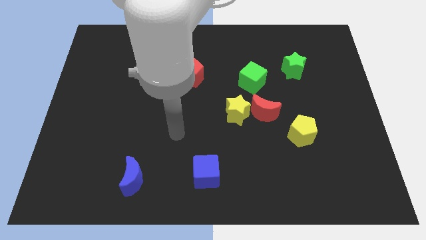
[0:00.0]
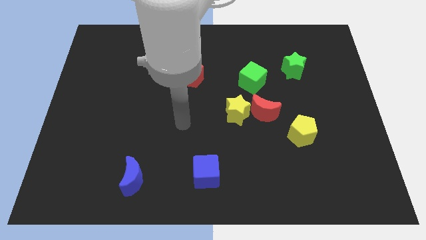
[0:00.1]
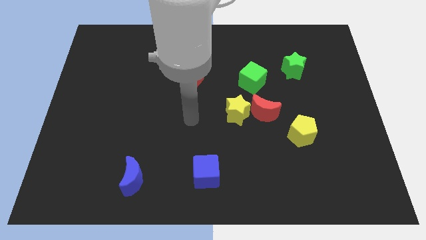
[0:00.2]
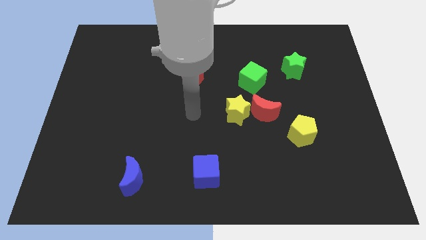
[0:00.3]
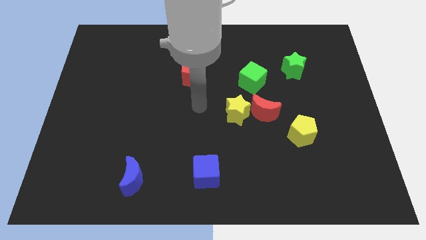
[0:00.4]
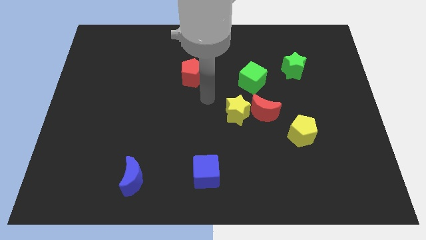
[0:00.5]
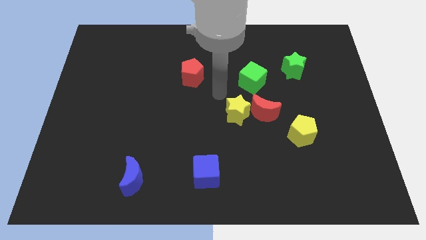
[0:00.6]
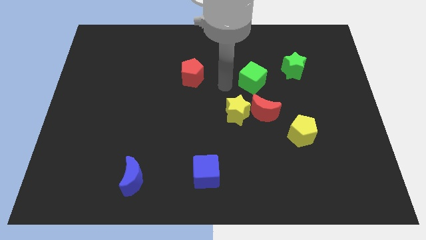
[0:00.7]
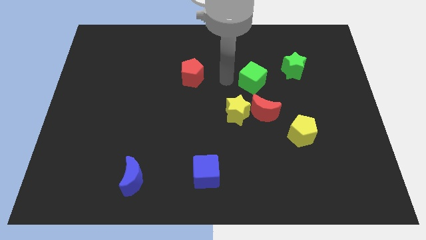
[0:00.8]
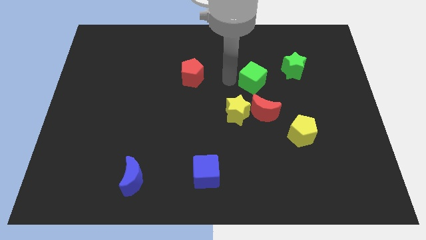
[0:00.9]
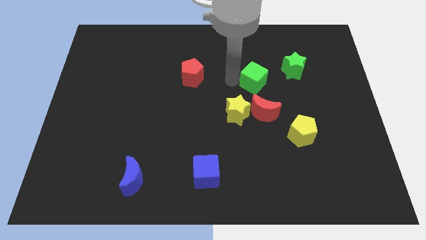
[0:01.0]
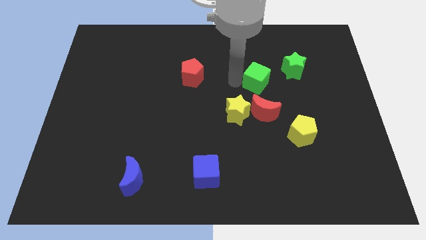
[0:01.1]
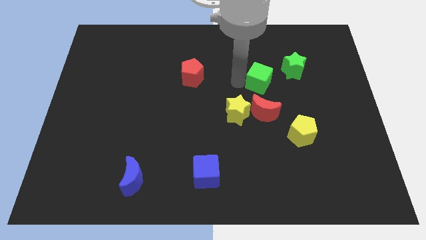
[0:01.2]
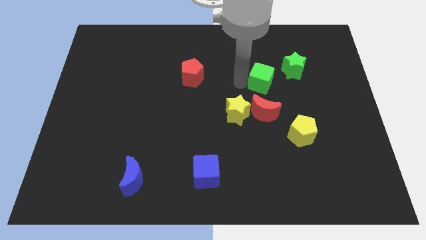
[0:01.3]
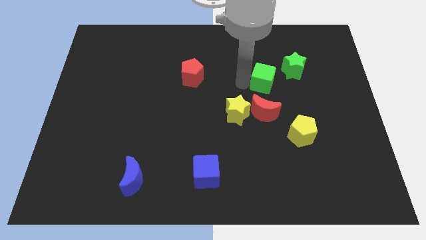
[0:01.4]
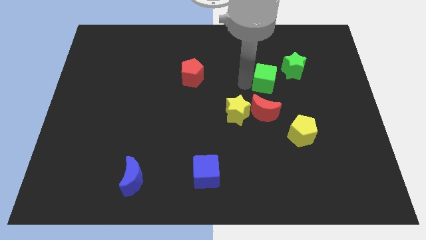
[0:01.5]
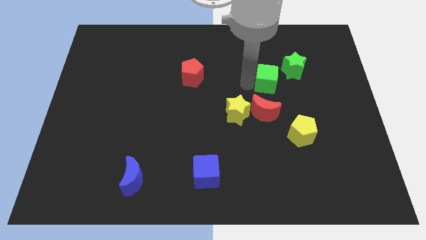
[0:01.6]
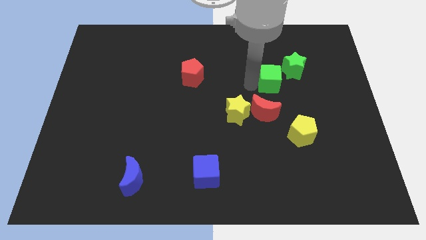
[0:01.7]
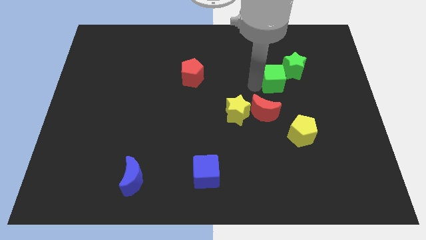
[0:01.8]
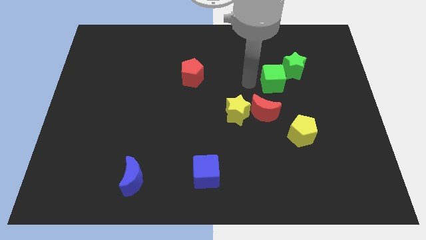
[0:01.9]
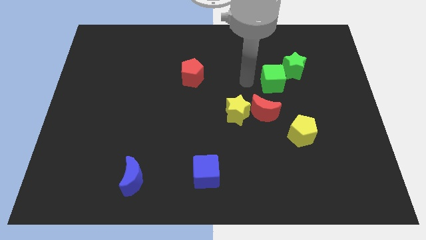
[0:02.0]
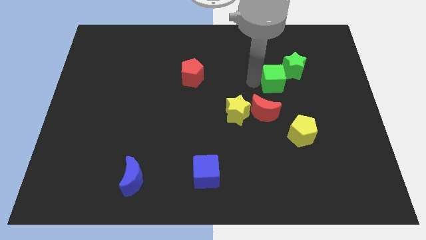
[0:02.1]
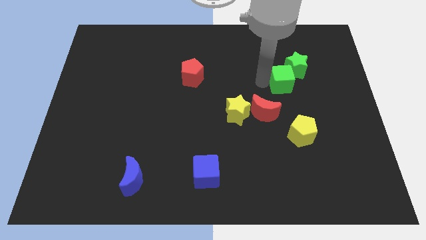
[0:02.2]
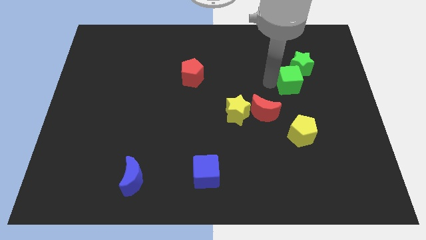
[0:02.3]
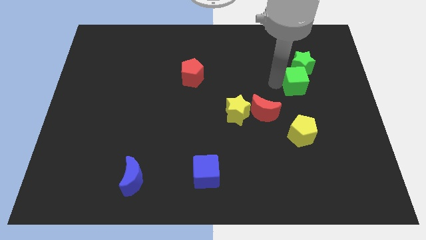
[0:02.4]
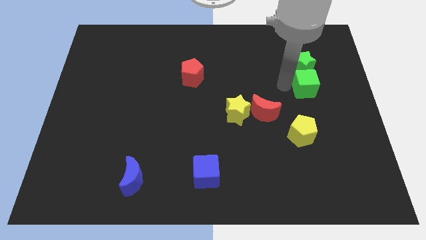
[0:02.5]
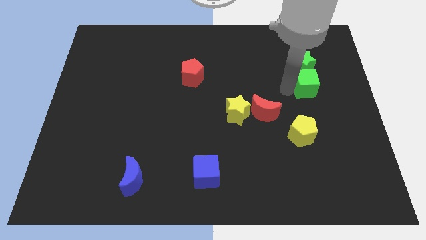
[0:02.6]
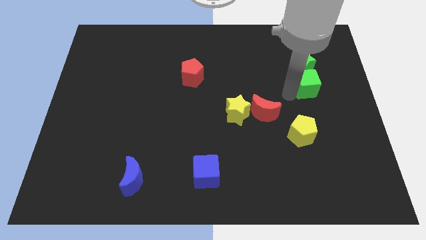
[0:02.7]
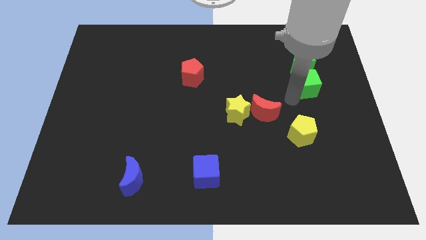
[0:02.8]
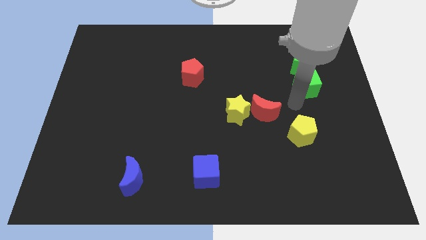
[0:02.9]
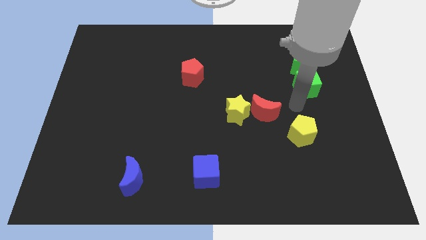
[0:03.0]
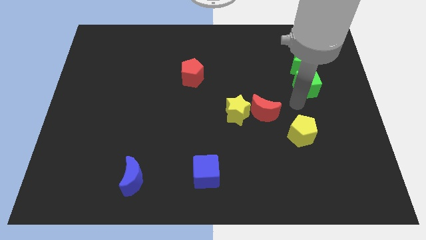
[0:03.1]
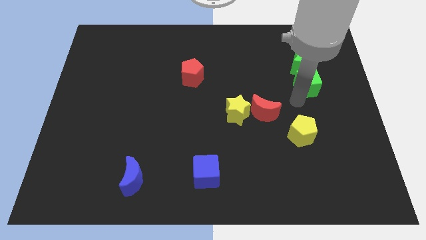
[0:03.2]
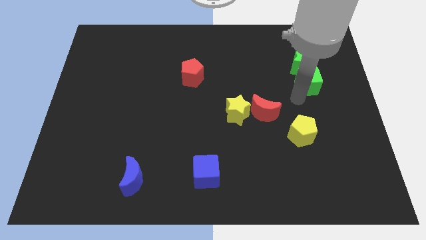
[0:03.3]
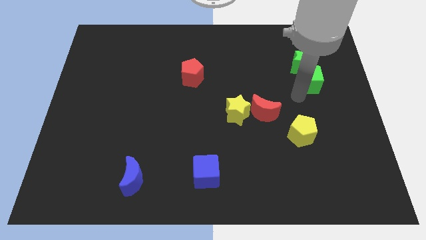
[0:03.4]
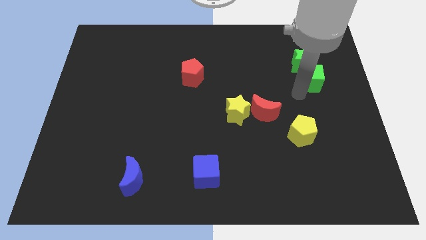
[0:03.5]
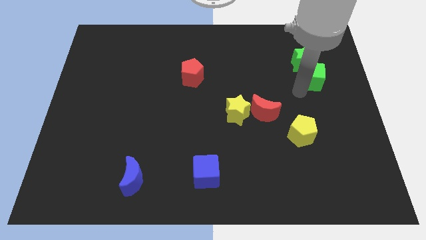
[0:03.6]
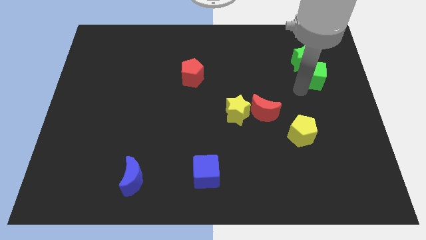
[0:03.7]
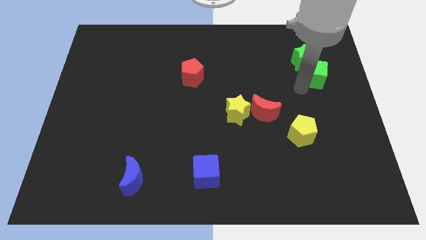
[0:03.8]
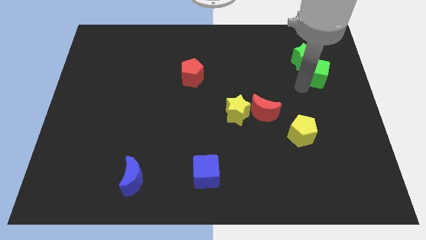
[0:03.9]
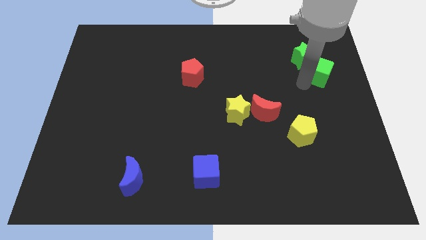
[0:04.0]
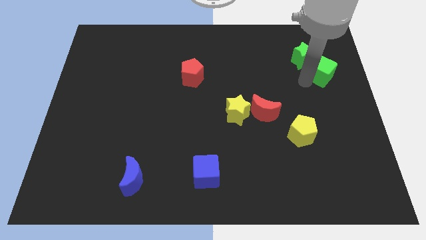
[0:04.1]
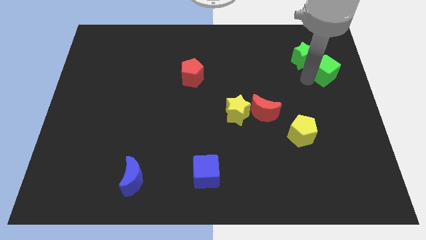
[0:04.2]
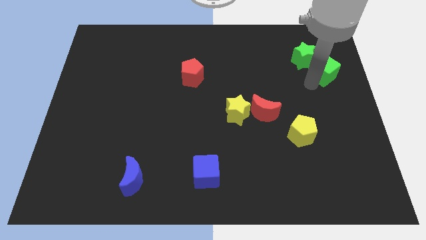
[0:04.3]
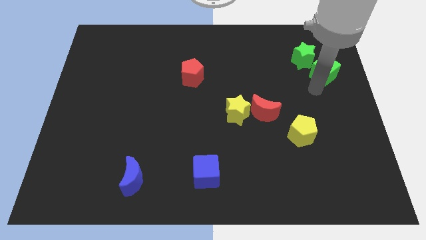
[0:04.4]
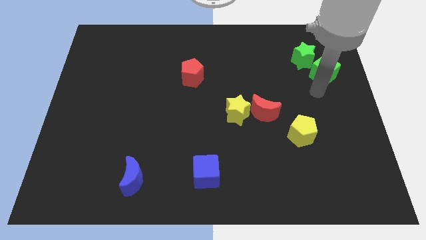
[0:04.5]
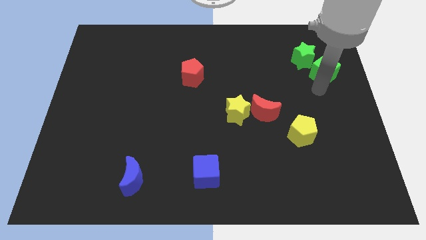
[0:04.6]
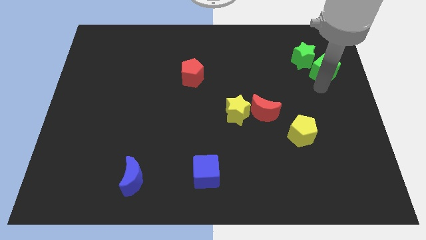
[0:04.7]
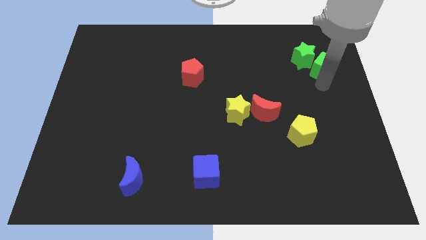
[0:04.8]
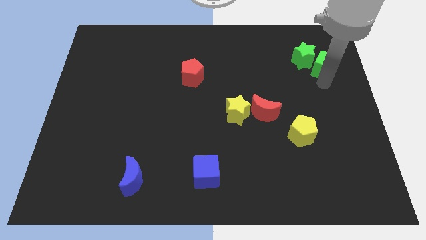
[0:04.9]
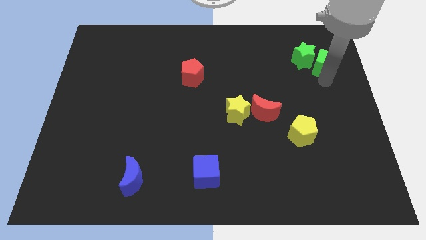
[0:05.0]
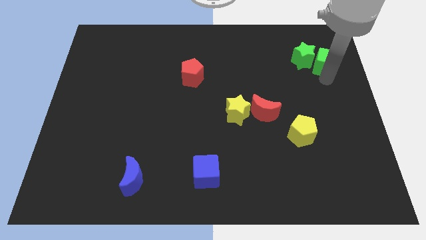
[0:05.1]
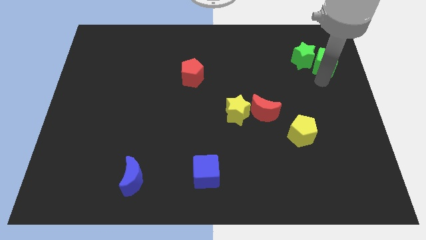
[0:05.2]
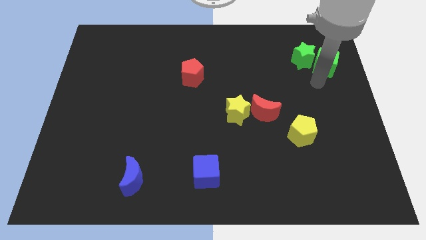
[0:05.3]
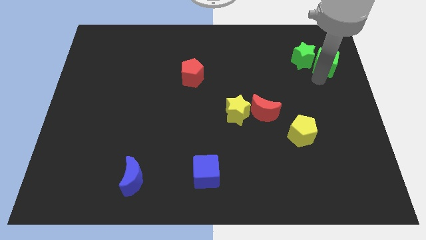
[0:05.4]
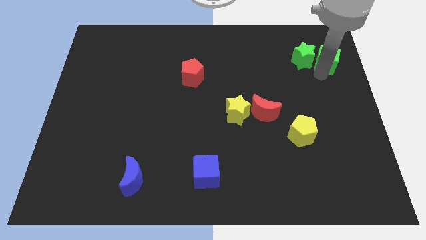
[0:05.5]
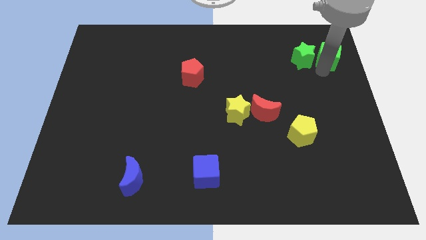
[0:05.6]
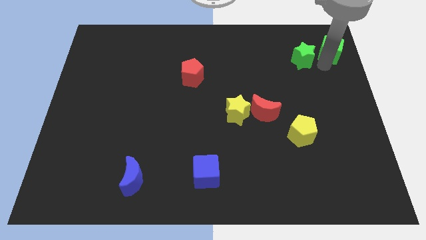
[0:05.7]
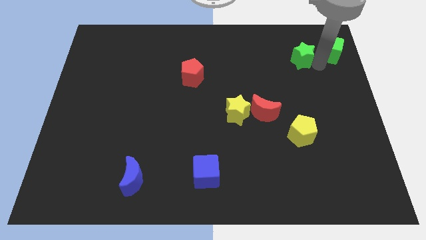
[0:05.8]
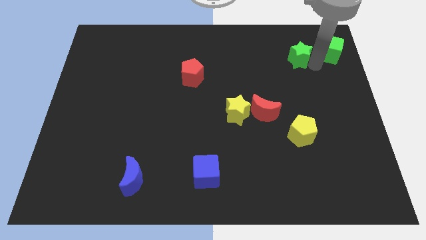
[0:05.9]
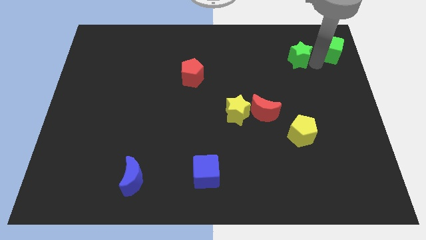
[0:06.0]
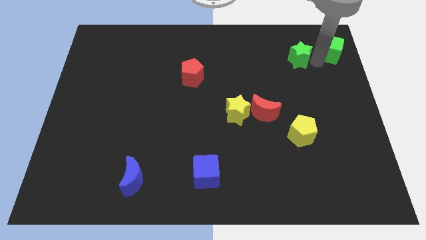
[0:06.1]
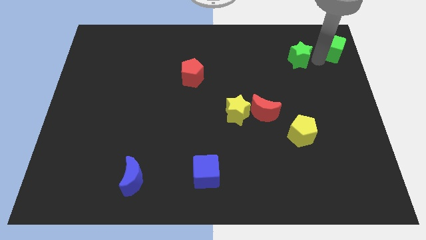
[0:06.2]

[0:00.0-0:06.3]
move the green cube to the top right of the board
